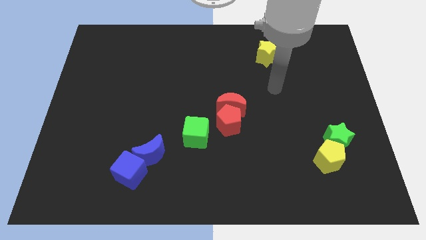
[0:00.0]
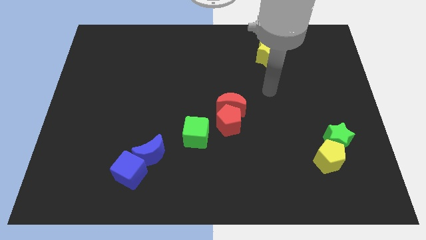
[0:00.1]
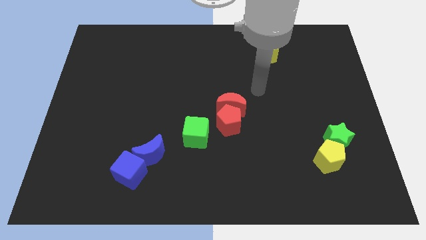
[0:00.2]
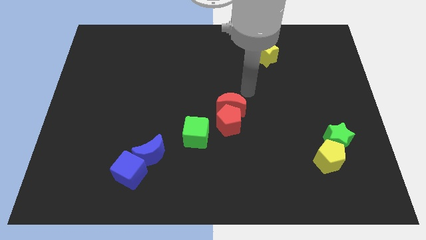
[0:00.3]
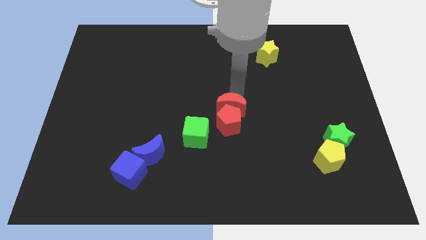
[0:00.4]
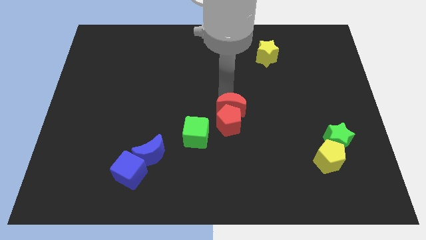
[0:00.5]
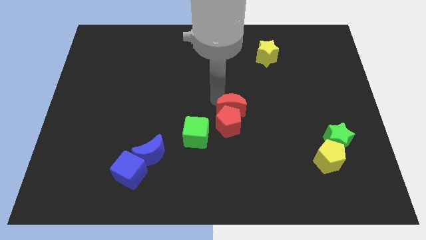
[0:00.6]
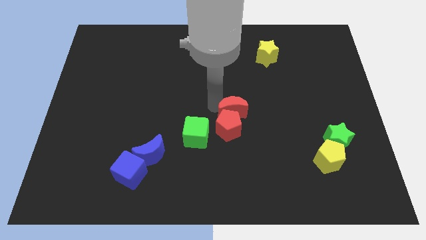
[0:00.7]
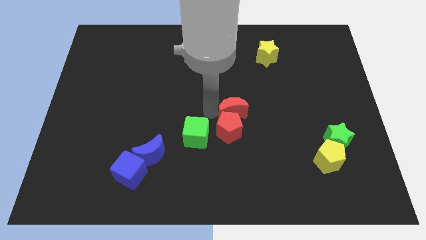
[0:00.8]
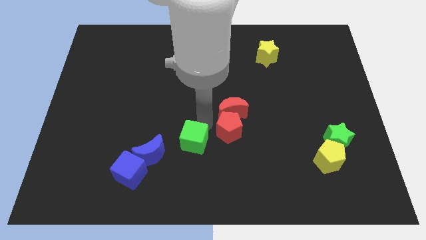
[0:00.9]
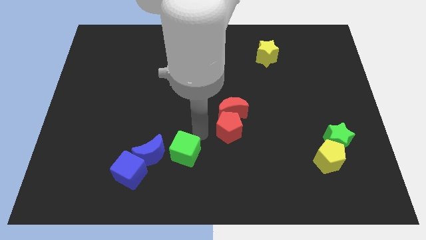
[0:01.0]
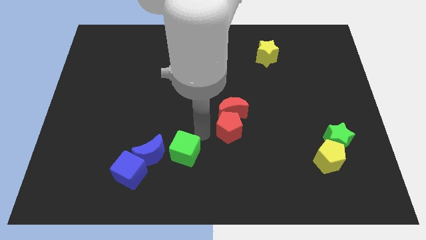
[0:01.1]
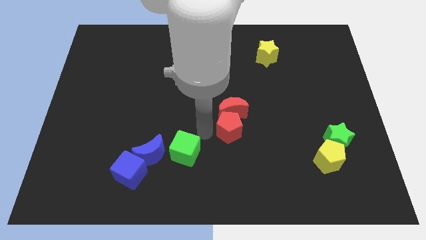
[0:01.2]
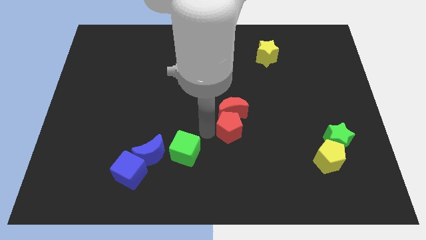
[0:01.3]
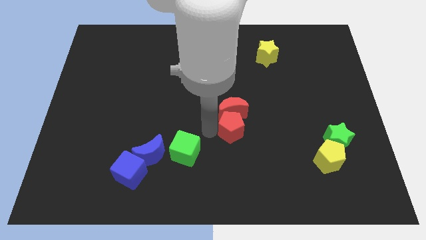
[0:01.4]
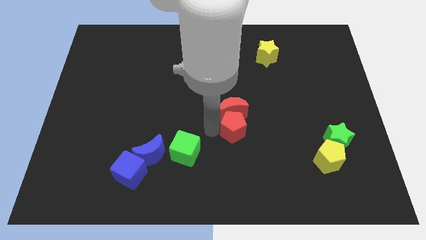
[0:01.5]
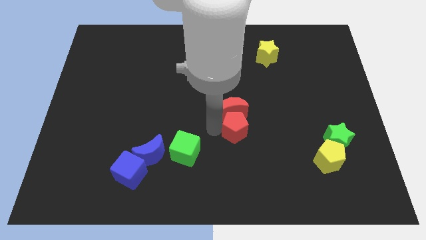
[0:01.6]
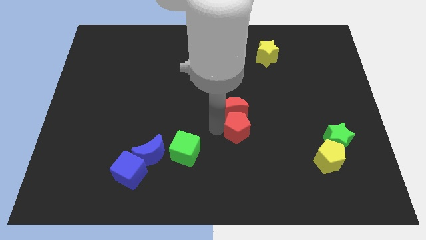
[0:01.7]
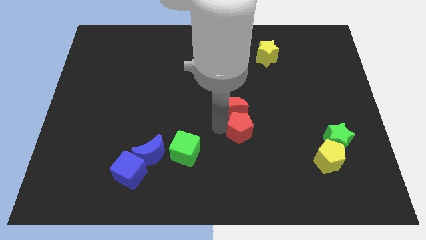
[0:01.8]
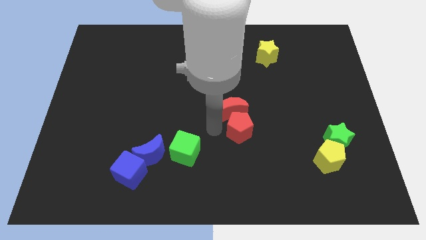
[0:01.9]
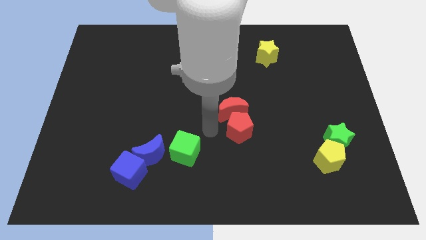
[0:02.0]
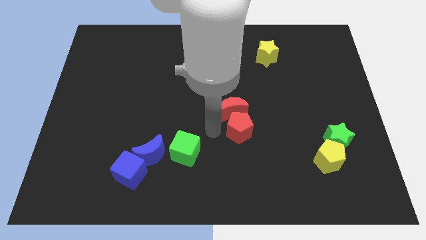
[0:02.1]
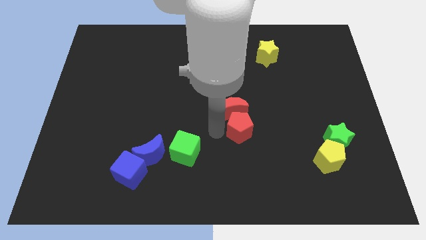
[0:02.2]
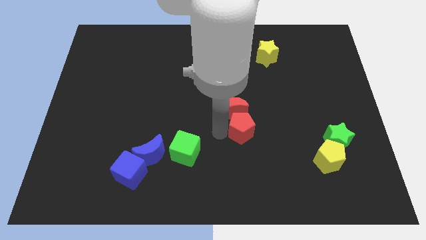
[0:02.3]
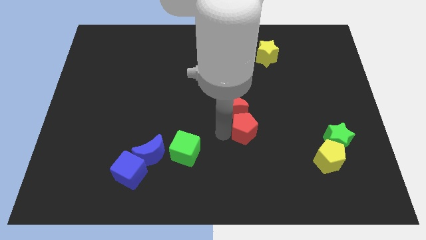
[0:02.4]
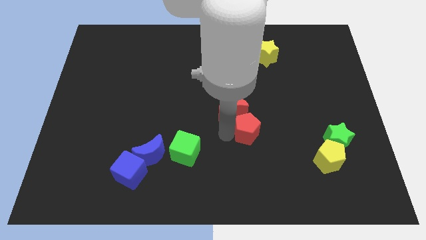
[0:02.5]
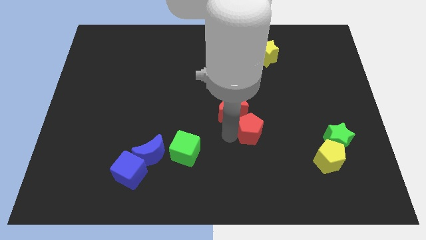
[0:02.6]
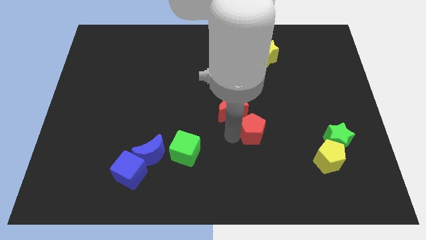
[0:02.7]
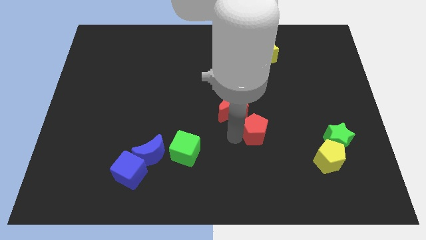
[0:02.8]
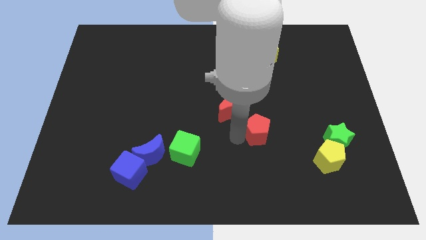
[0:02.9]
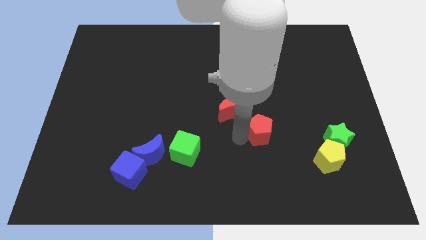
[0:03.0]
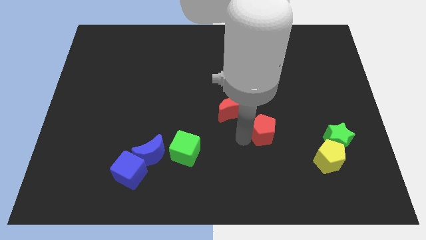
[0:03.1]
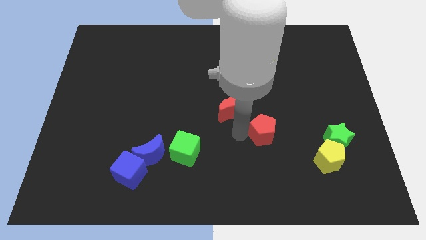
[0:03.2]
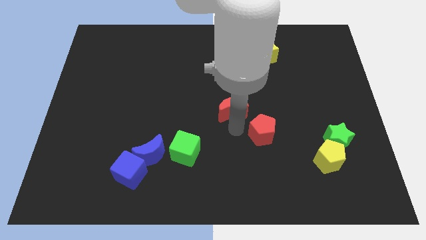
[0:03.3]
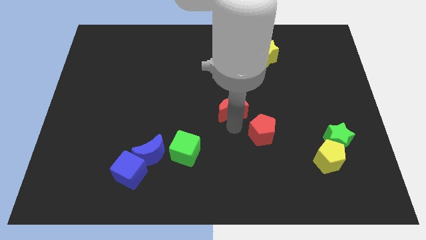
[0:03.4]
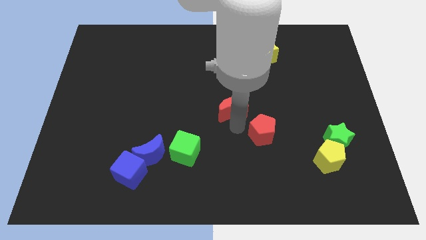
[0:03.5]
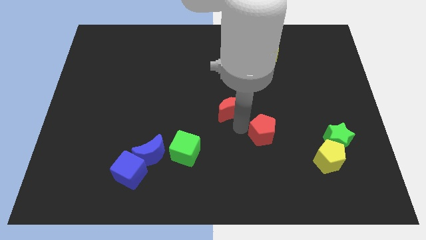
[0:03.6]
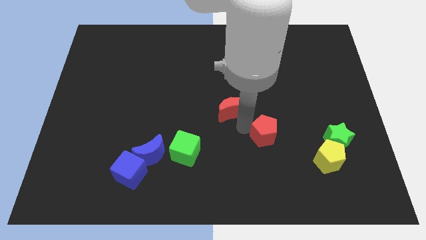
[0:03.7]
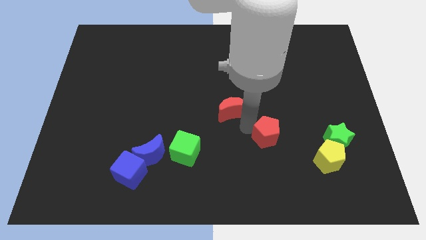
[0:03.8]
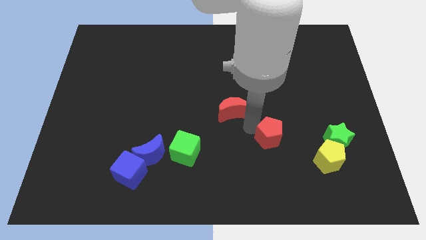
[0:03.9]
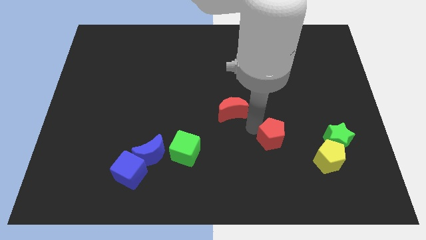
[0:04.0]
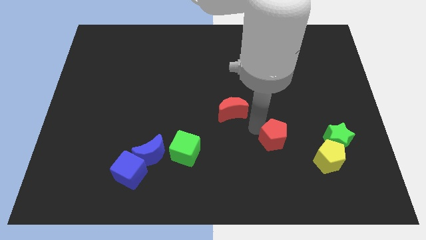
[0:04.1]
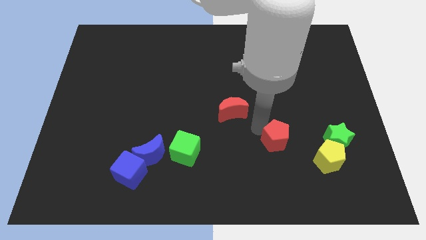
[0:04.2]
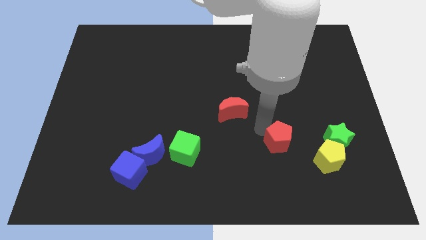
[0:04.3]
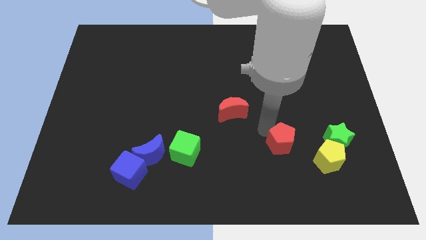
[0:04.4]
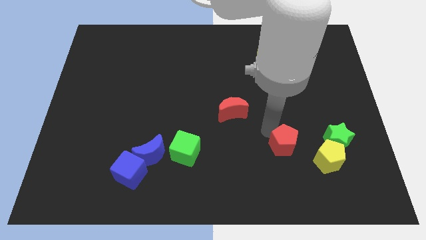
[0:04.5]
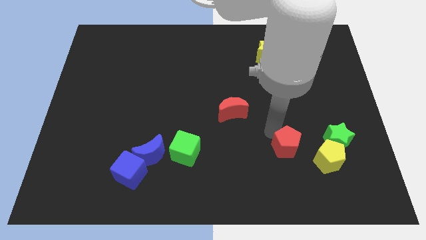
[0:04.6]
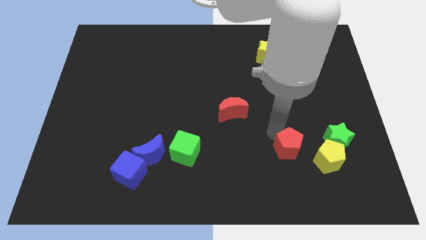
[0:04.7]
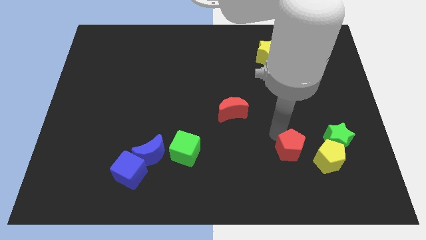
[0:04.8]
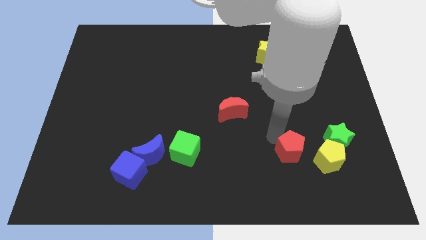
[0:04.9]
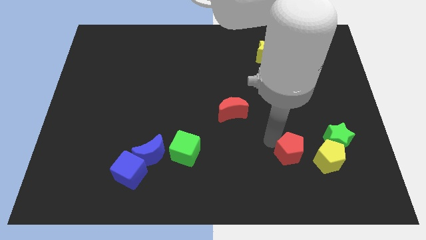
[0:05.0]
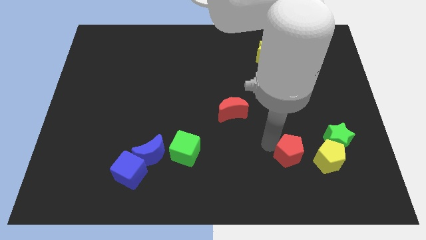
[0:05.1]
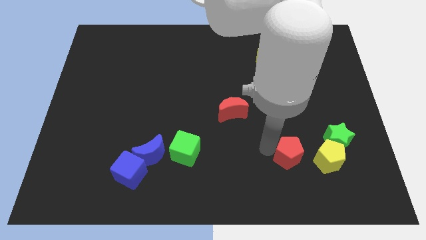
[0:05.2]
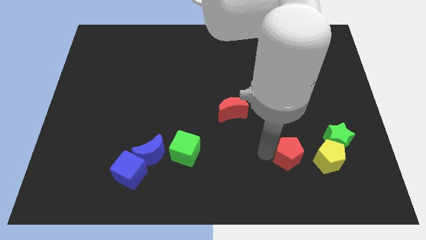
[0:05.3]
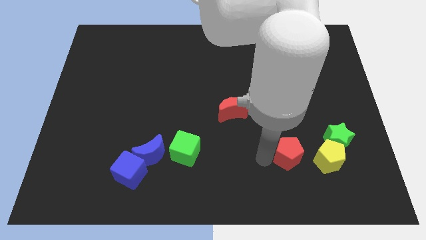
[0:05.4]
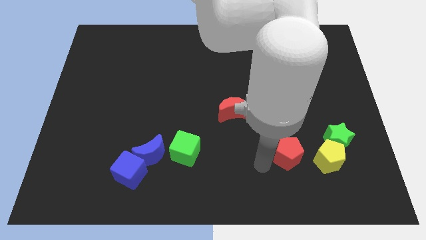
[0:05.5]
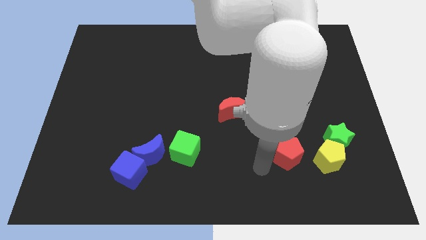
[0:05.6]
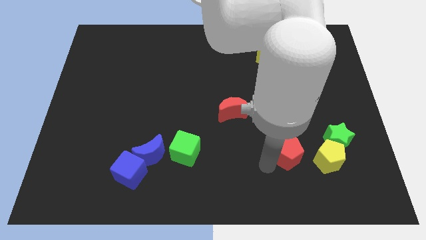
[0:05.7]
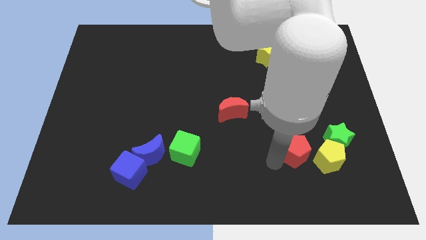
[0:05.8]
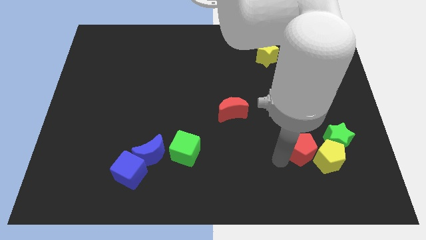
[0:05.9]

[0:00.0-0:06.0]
push the red pentagon next to the yellow pentagon
